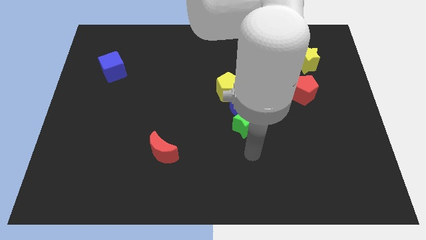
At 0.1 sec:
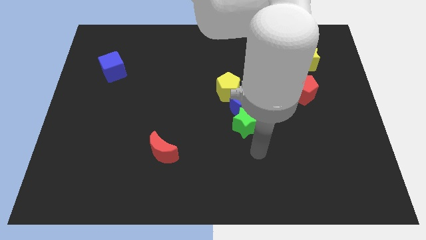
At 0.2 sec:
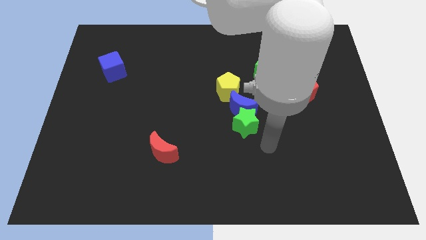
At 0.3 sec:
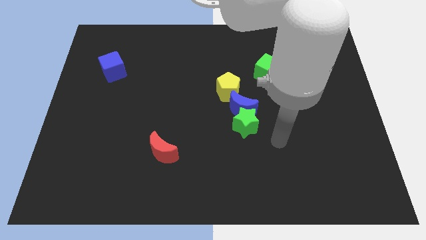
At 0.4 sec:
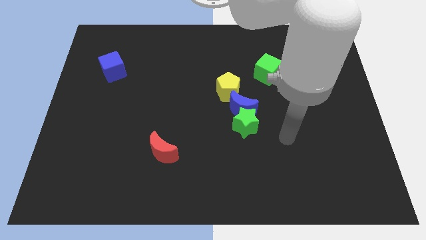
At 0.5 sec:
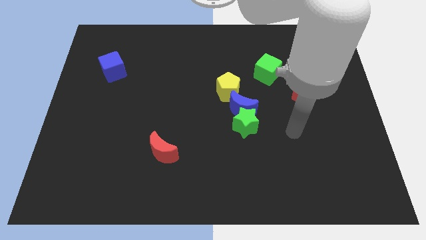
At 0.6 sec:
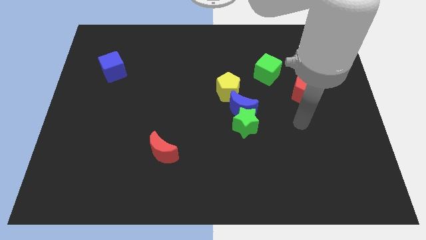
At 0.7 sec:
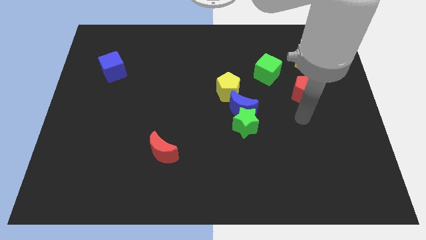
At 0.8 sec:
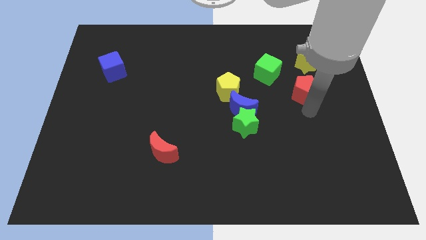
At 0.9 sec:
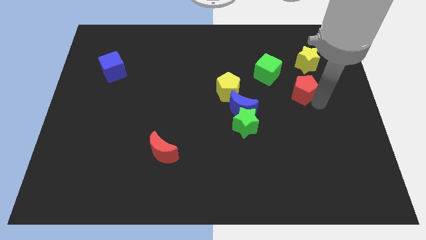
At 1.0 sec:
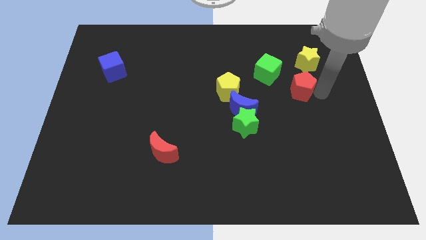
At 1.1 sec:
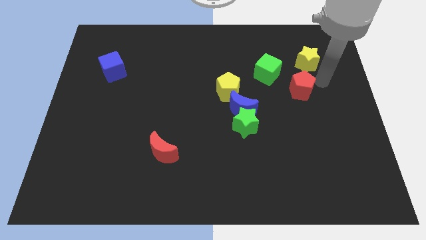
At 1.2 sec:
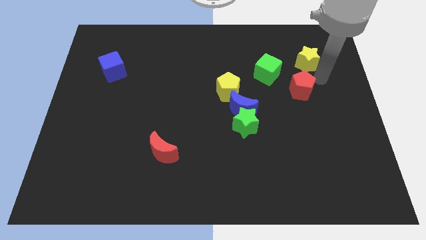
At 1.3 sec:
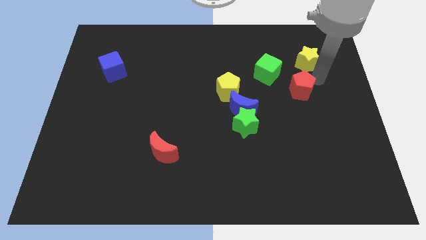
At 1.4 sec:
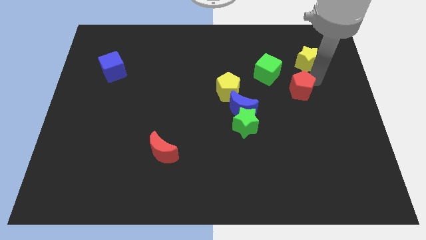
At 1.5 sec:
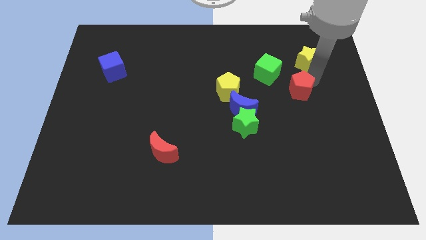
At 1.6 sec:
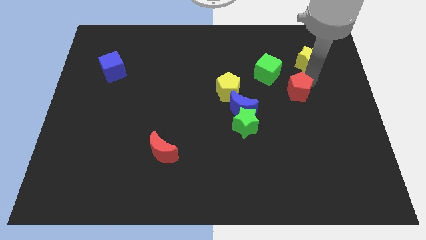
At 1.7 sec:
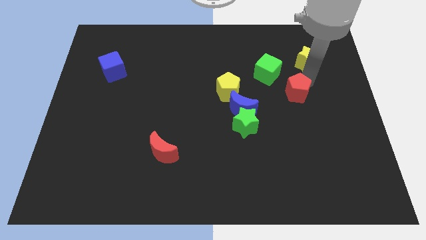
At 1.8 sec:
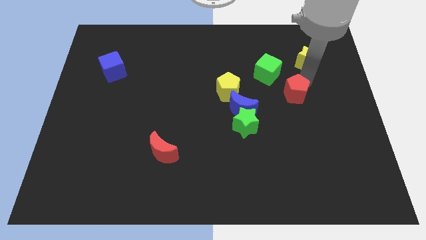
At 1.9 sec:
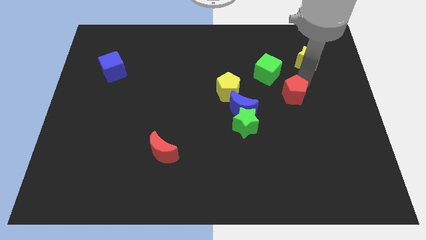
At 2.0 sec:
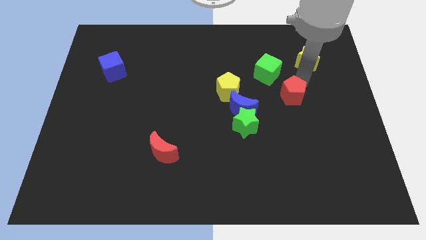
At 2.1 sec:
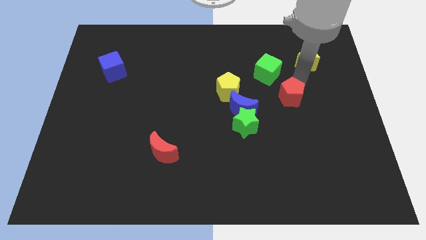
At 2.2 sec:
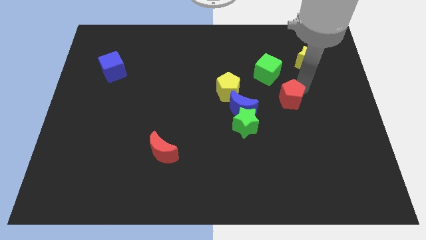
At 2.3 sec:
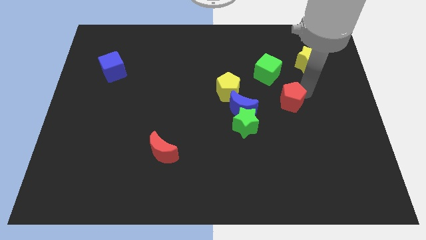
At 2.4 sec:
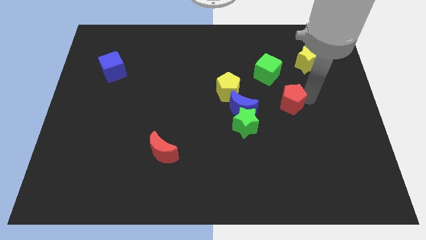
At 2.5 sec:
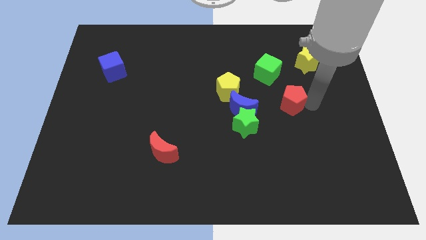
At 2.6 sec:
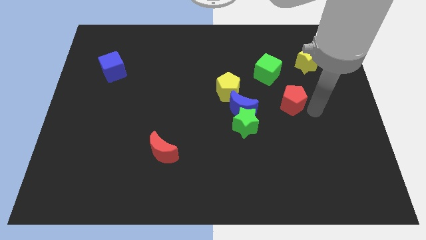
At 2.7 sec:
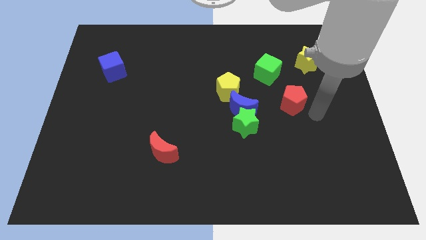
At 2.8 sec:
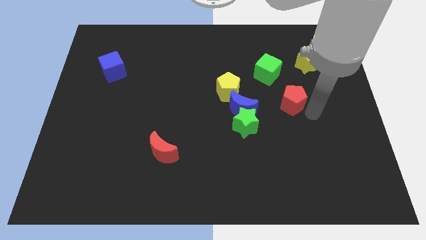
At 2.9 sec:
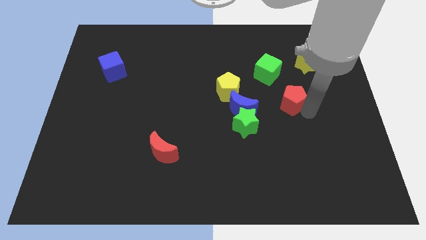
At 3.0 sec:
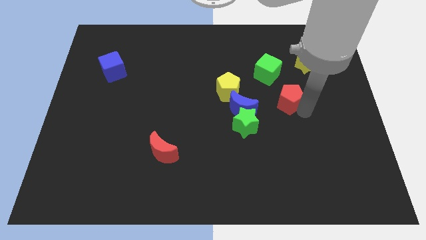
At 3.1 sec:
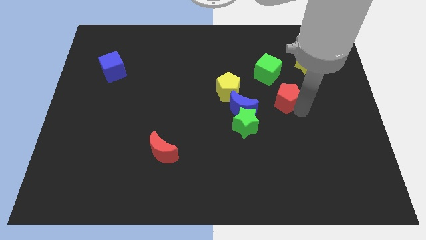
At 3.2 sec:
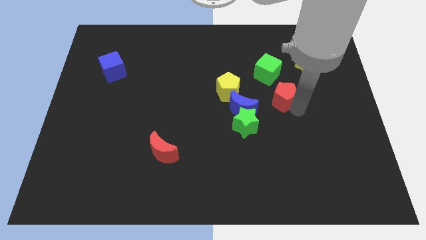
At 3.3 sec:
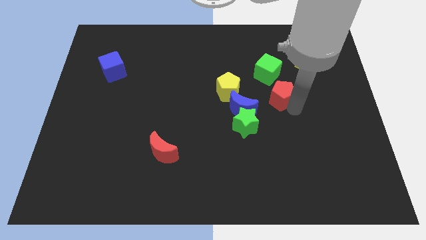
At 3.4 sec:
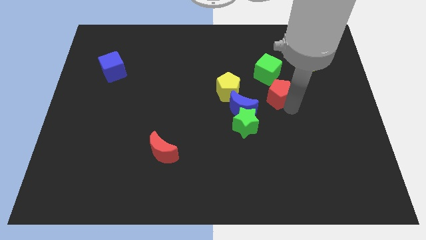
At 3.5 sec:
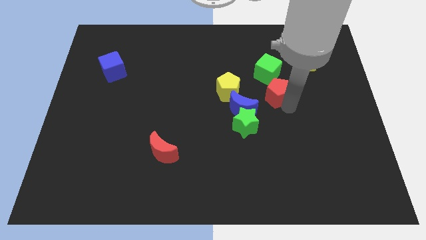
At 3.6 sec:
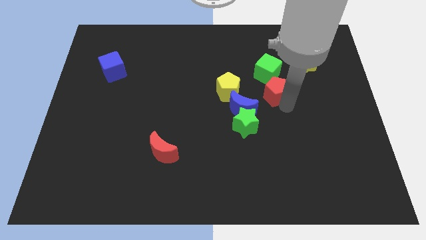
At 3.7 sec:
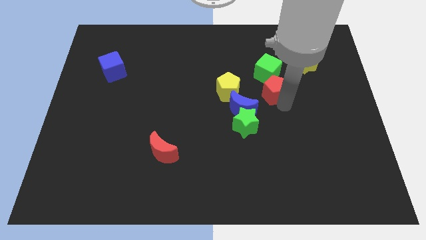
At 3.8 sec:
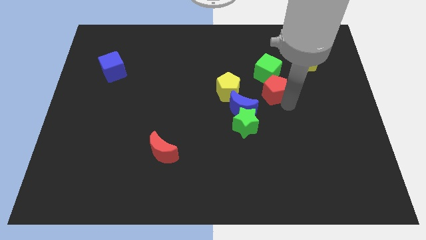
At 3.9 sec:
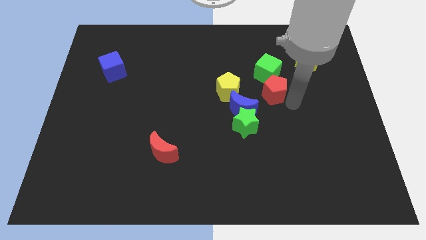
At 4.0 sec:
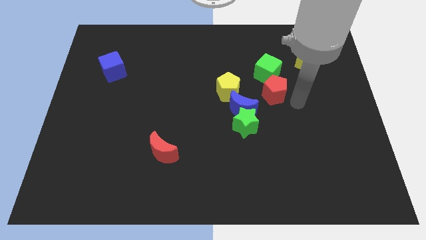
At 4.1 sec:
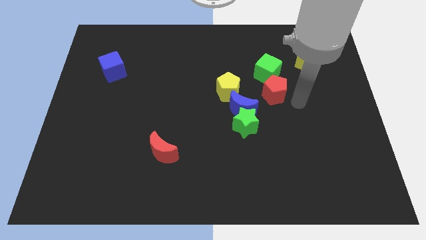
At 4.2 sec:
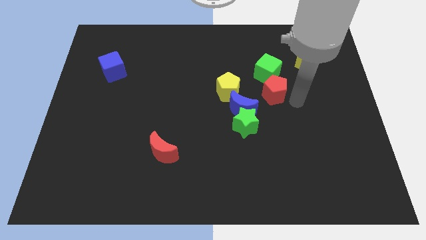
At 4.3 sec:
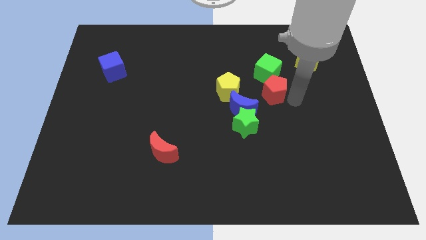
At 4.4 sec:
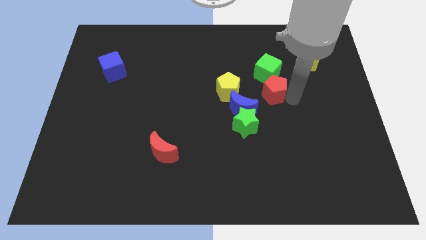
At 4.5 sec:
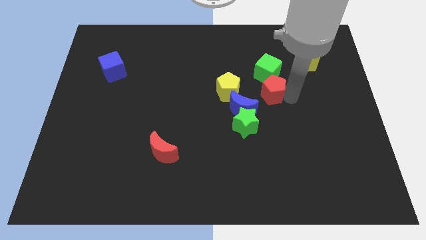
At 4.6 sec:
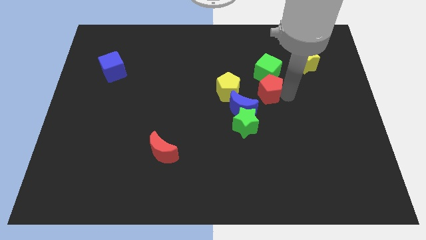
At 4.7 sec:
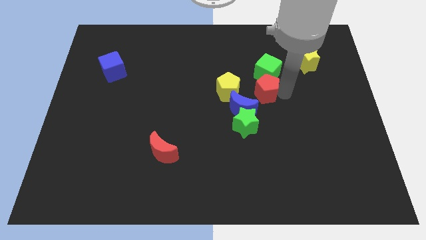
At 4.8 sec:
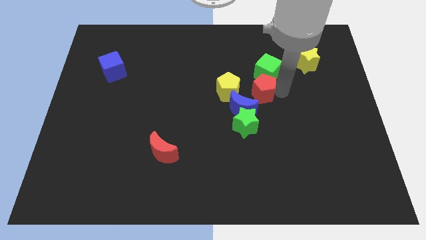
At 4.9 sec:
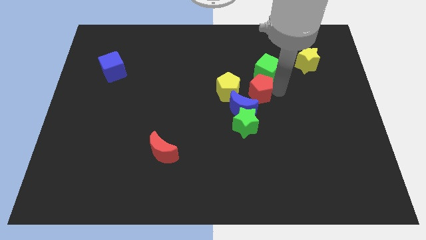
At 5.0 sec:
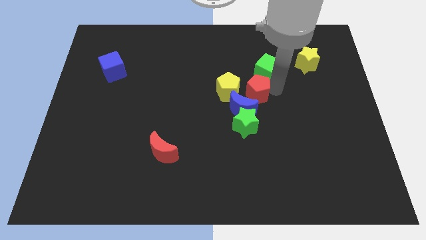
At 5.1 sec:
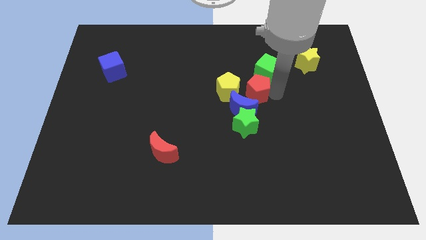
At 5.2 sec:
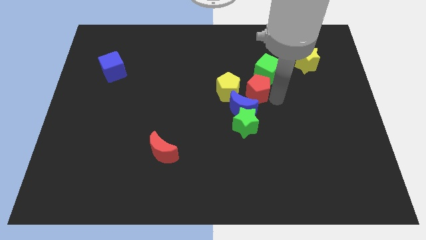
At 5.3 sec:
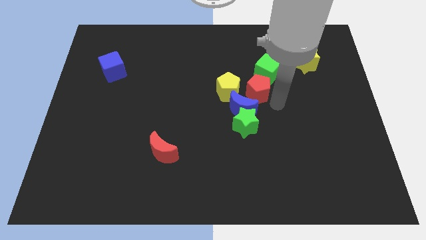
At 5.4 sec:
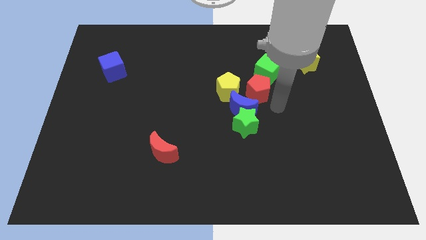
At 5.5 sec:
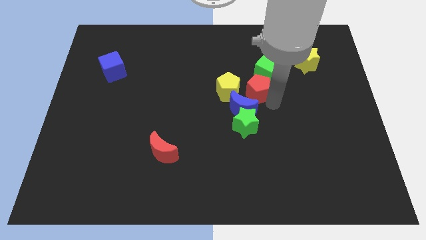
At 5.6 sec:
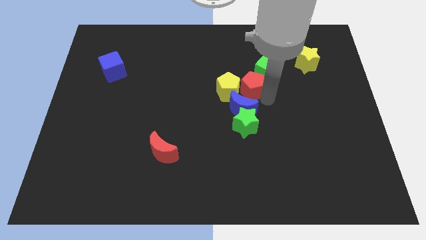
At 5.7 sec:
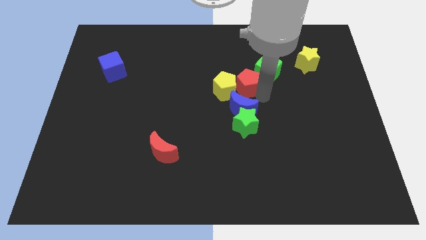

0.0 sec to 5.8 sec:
move the red pentagon just left of the green cube

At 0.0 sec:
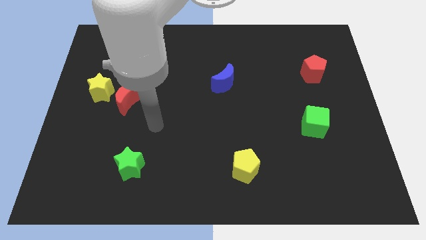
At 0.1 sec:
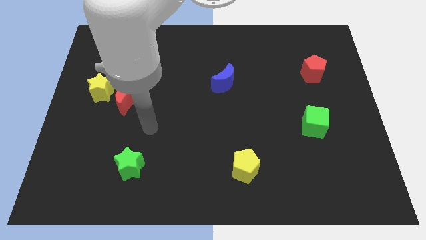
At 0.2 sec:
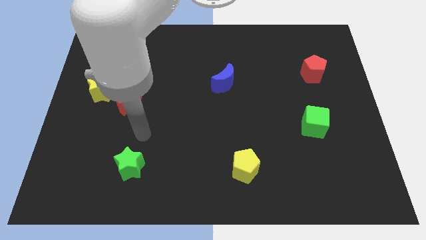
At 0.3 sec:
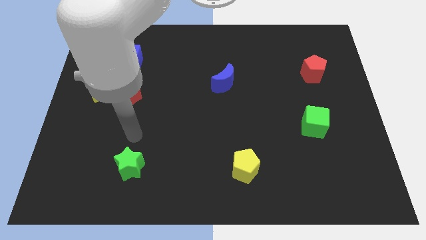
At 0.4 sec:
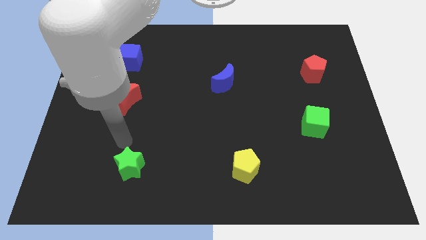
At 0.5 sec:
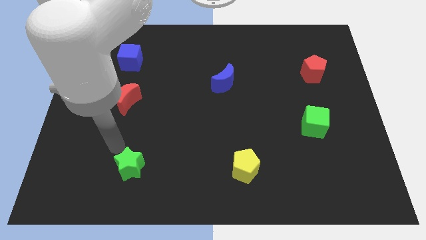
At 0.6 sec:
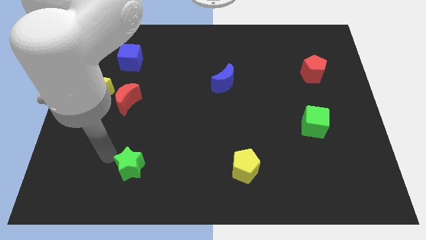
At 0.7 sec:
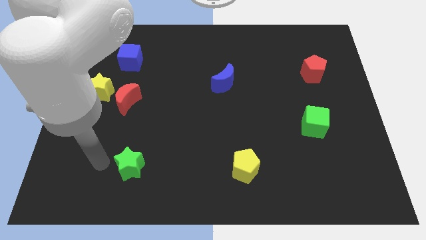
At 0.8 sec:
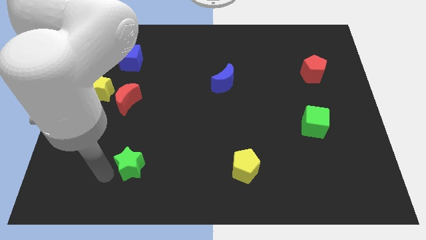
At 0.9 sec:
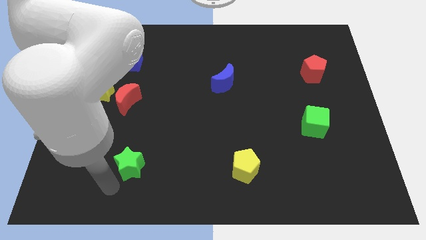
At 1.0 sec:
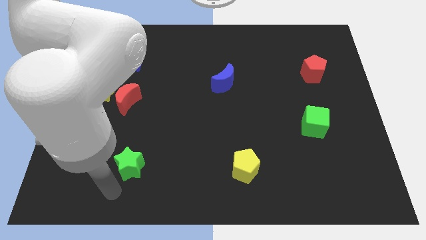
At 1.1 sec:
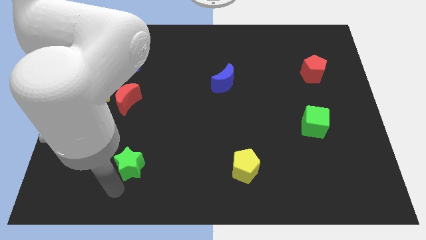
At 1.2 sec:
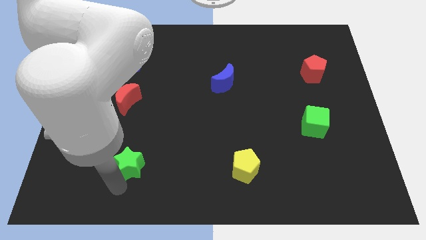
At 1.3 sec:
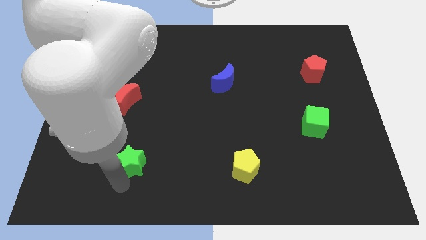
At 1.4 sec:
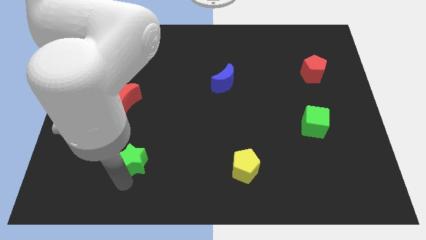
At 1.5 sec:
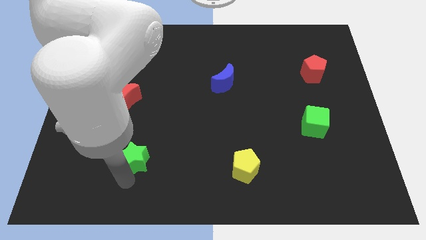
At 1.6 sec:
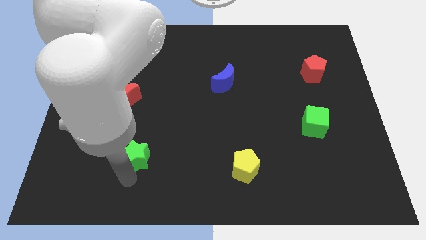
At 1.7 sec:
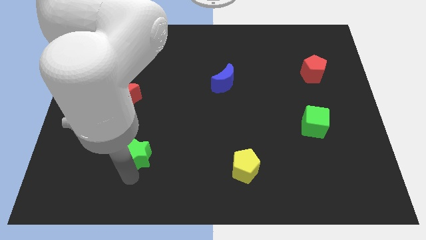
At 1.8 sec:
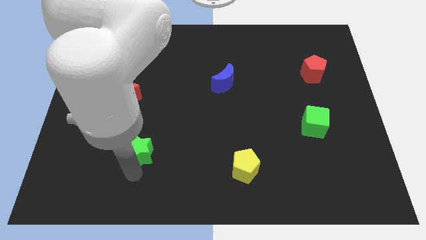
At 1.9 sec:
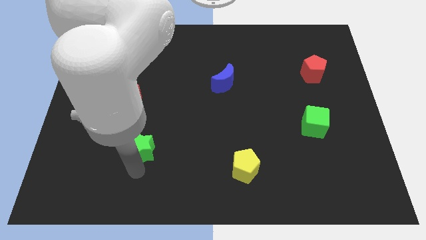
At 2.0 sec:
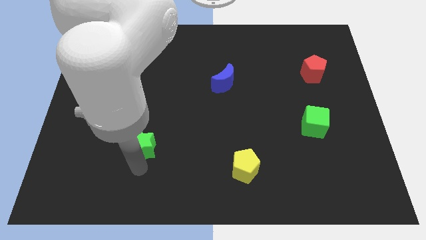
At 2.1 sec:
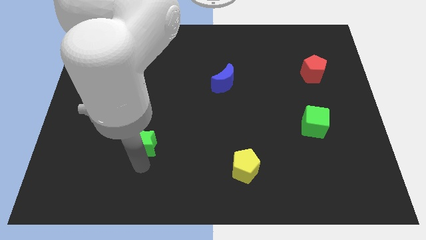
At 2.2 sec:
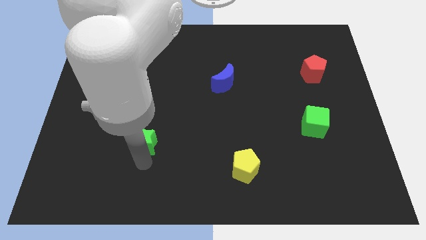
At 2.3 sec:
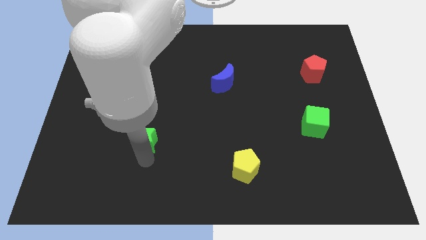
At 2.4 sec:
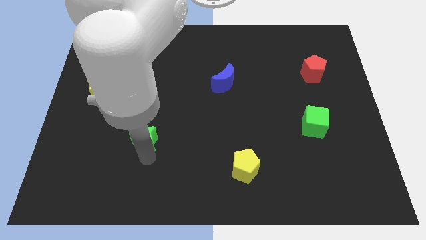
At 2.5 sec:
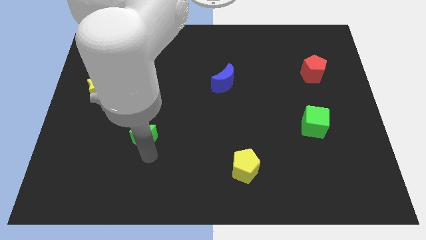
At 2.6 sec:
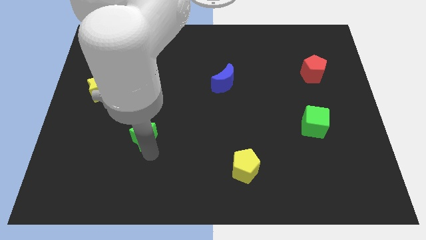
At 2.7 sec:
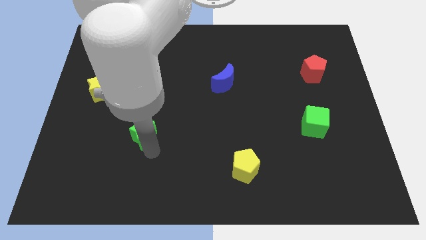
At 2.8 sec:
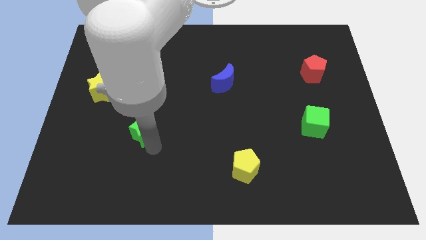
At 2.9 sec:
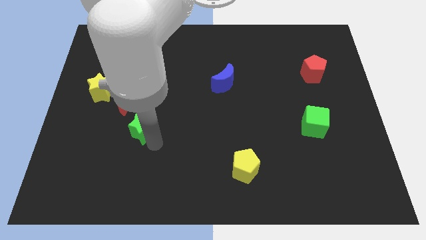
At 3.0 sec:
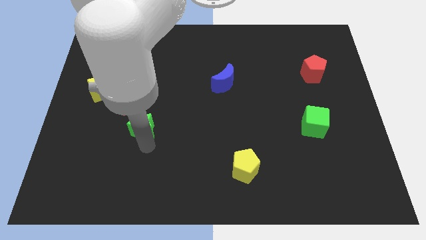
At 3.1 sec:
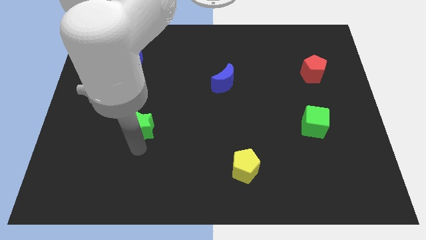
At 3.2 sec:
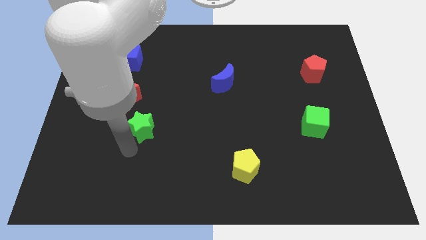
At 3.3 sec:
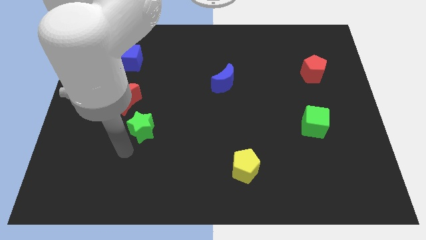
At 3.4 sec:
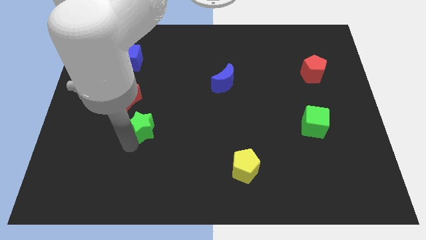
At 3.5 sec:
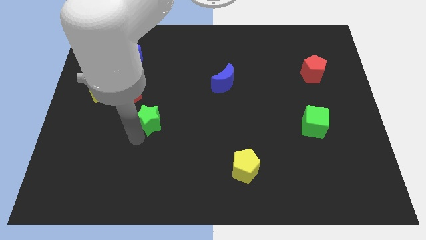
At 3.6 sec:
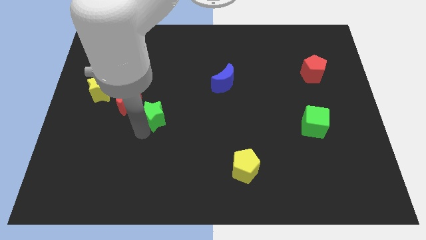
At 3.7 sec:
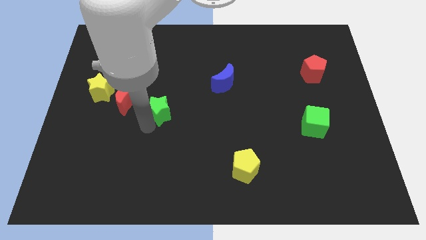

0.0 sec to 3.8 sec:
slide the green star to the right side of the red moon
